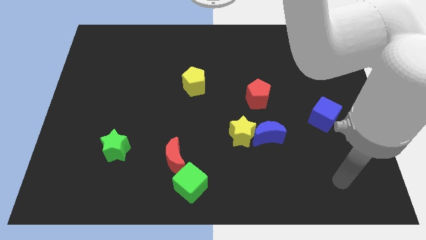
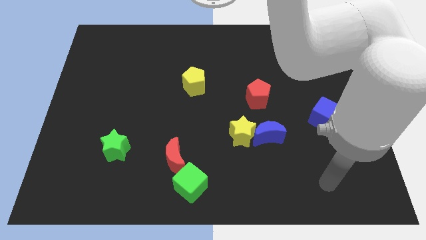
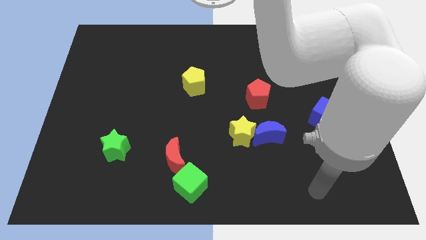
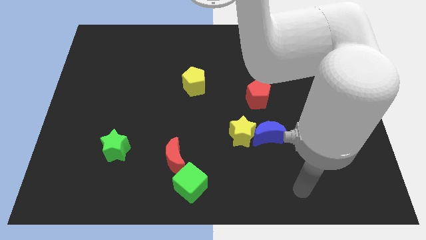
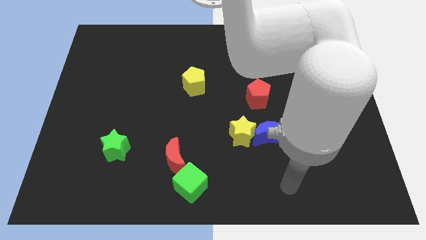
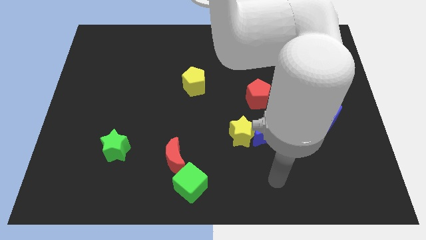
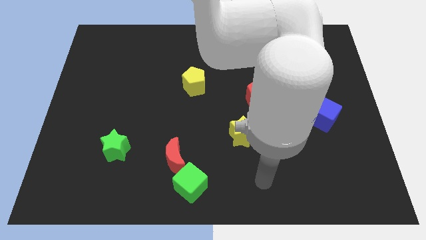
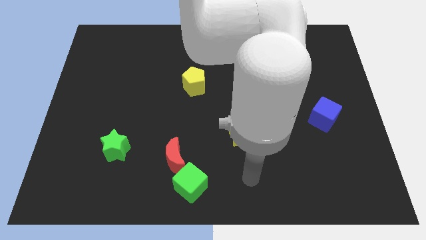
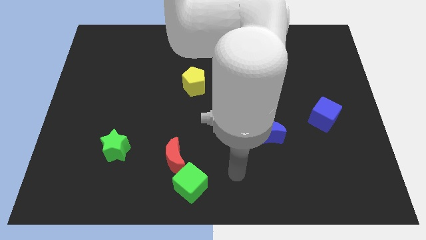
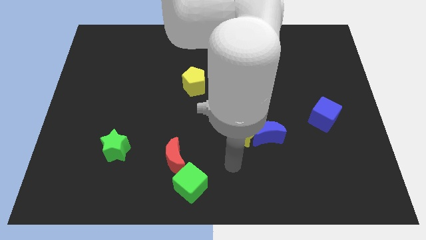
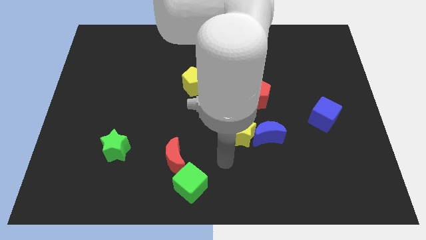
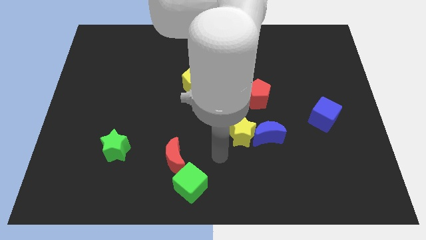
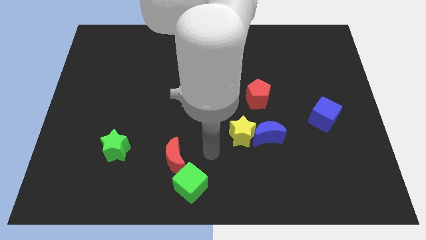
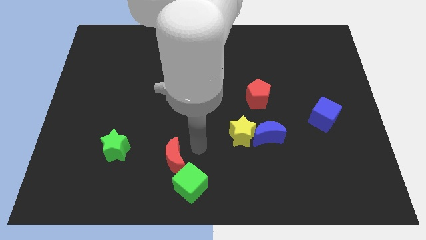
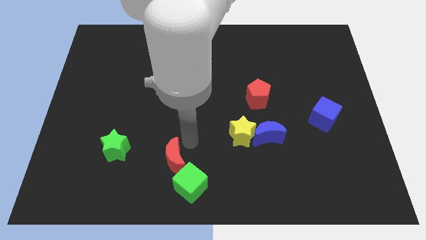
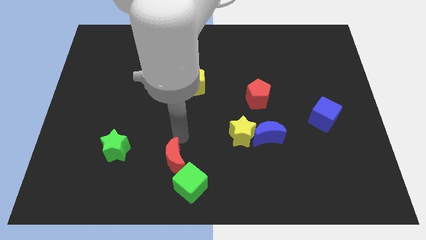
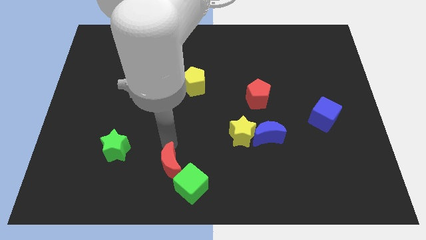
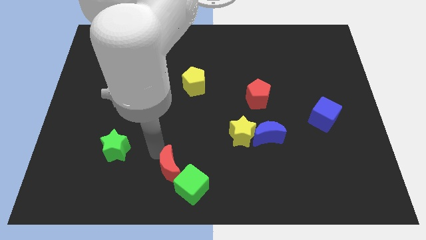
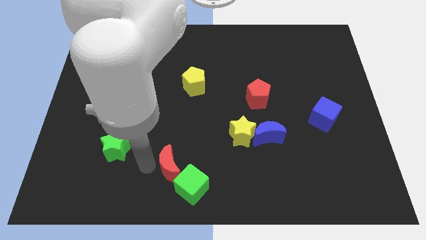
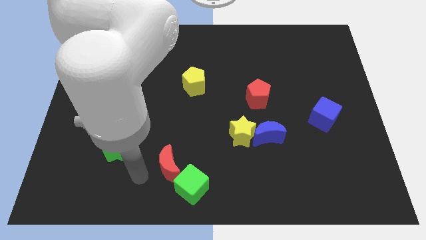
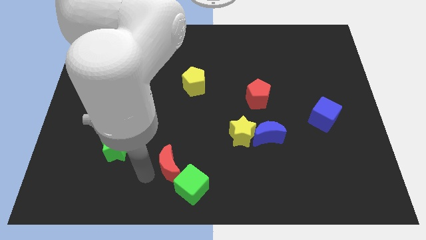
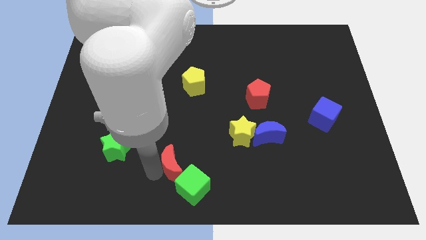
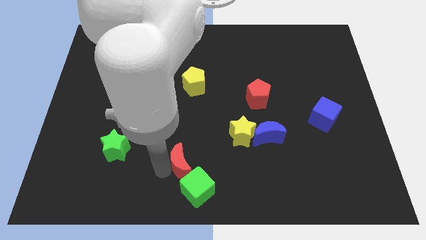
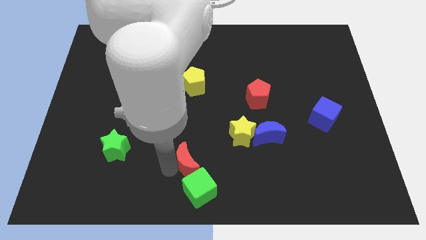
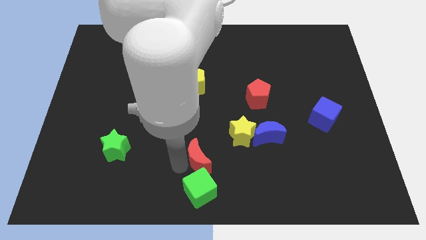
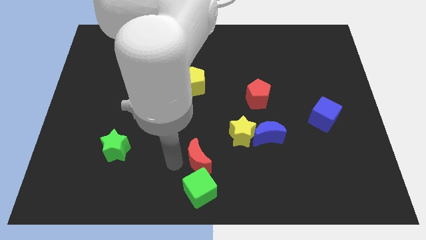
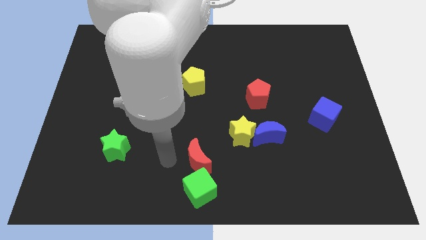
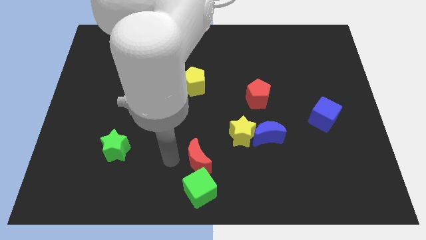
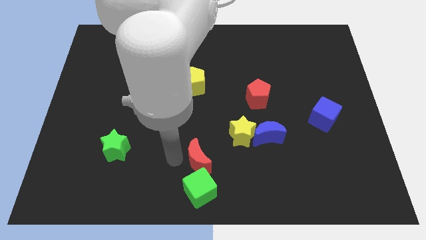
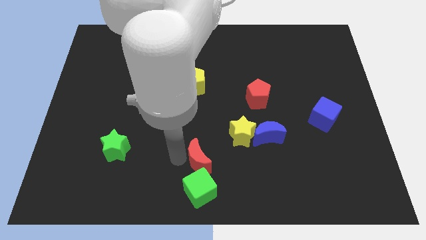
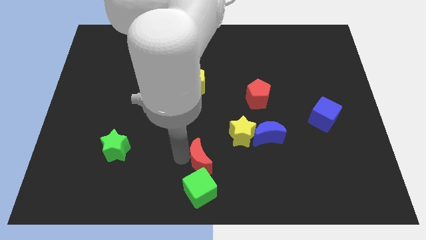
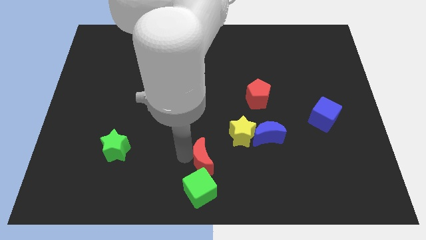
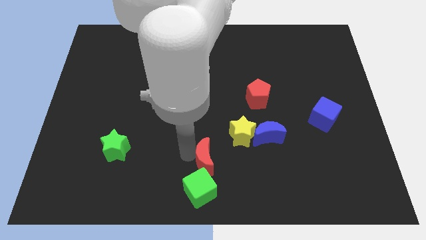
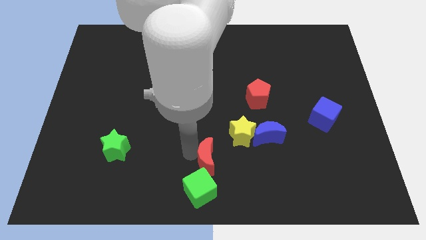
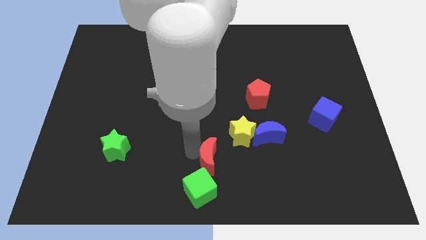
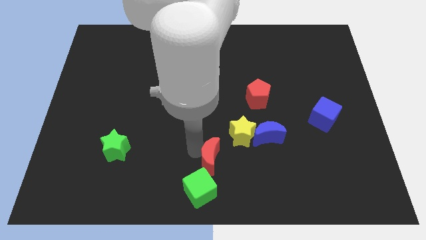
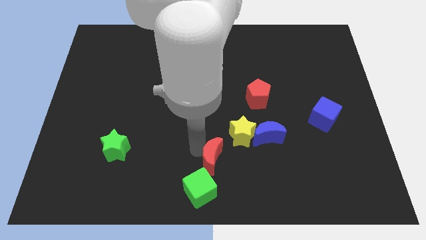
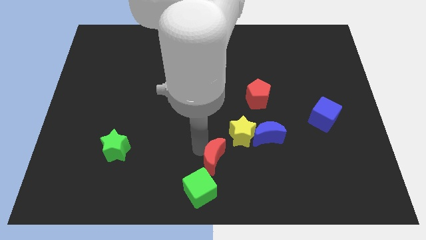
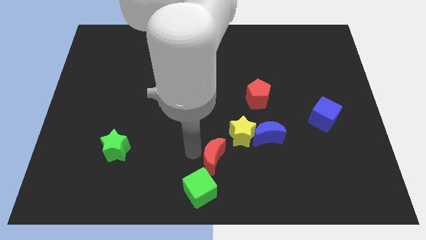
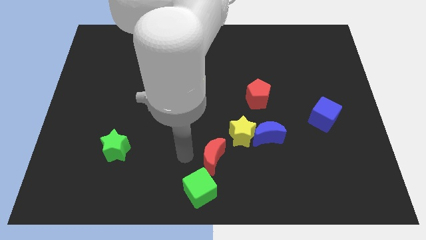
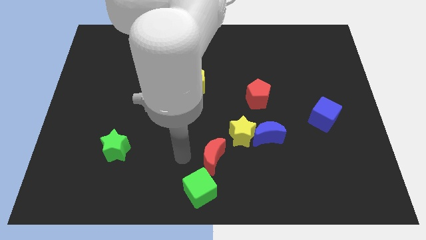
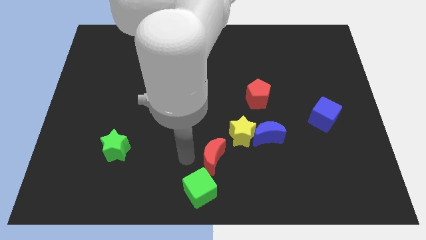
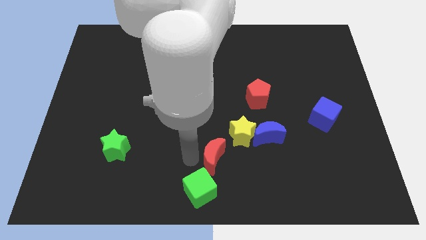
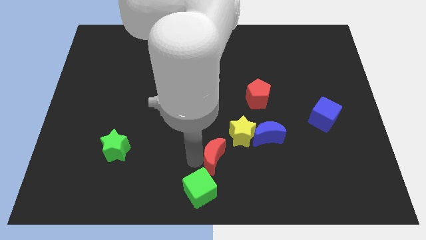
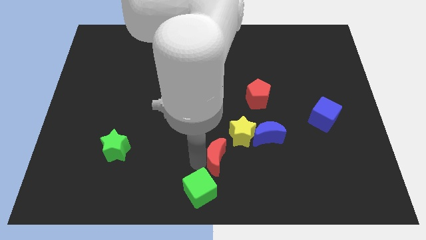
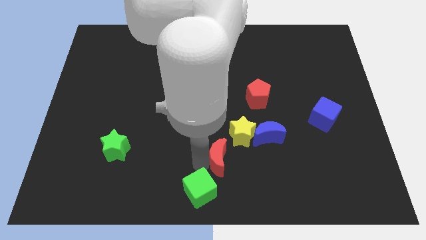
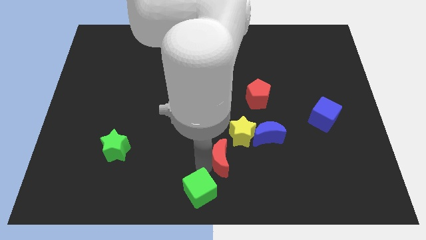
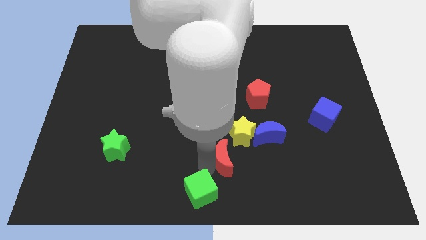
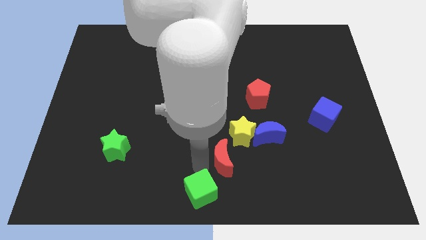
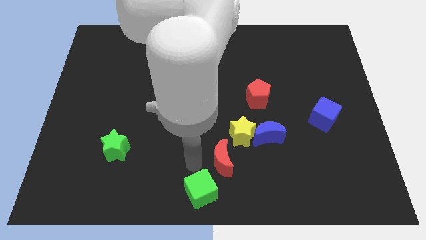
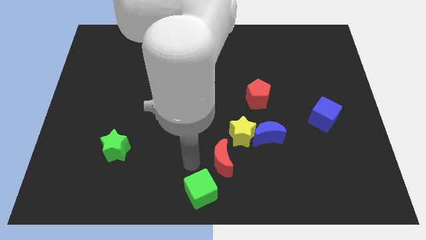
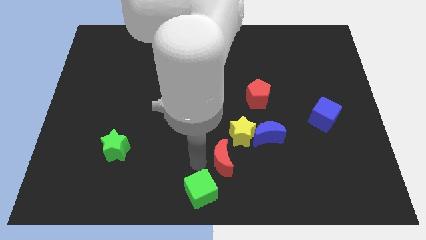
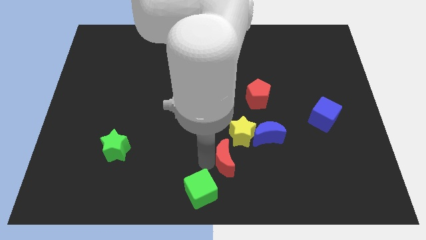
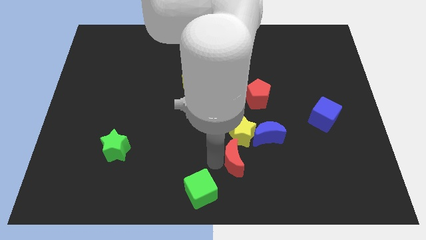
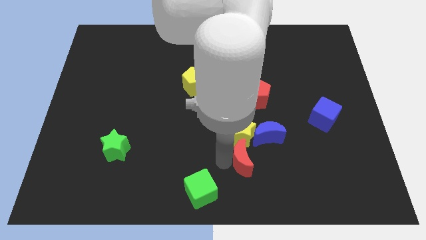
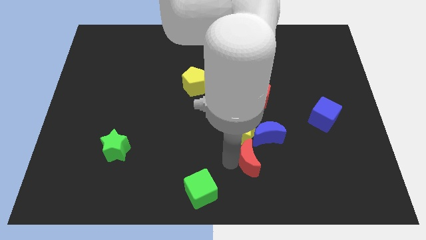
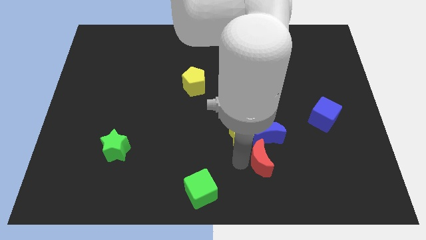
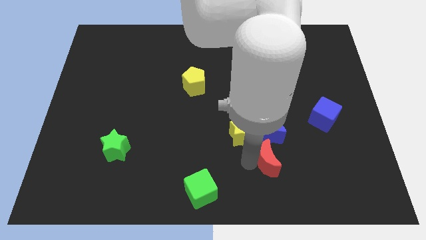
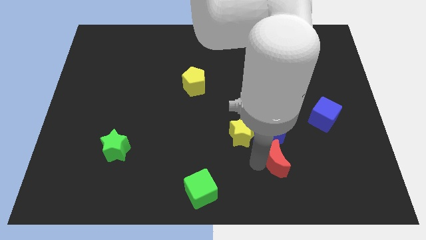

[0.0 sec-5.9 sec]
slide the red moon diagonally down and to the right of the blue moon

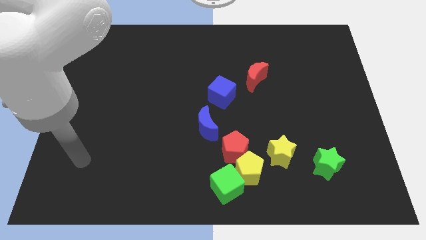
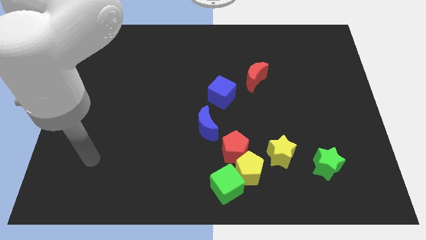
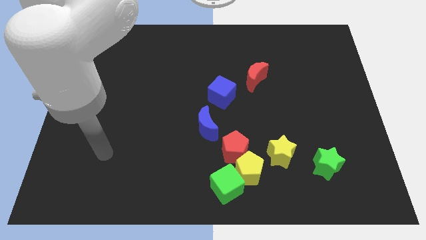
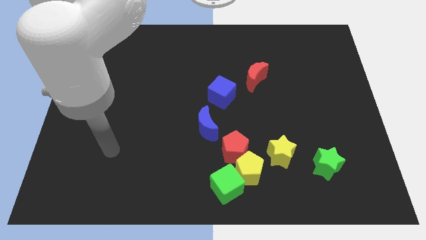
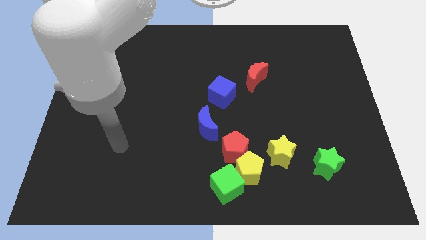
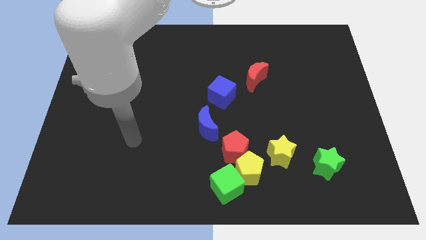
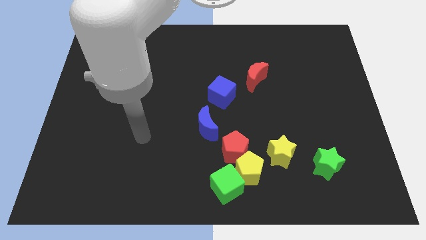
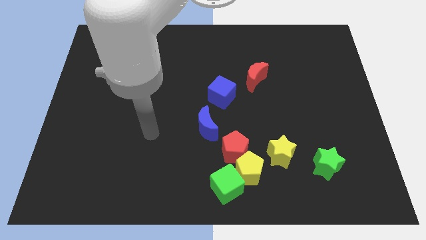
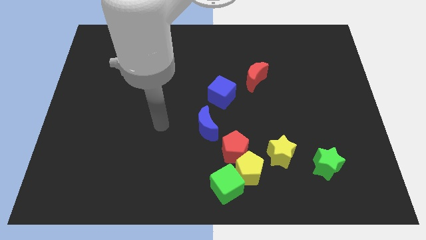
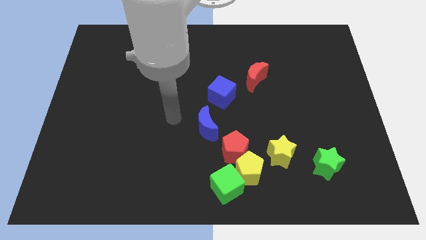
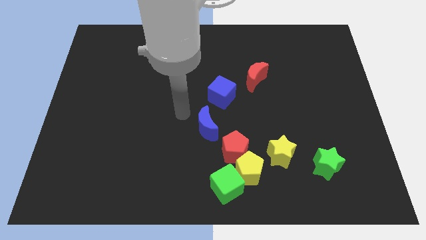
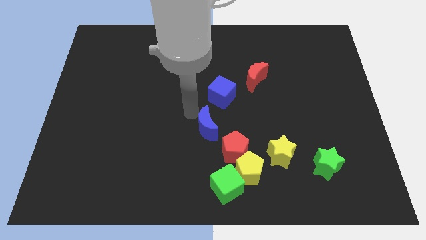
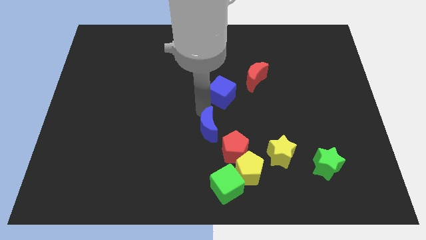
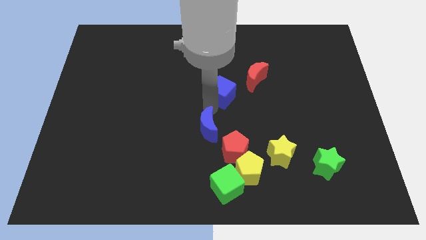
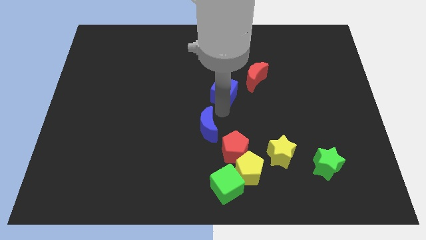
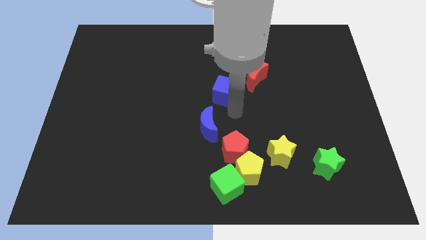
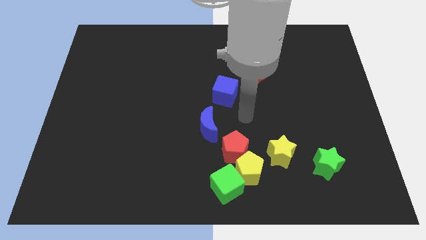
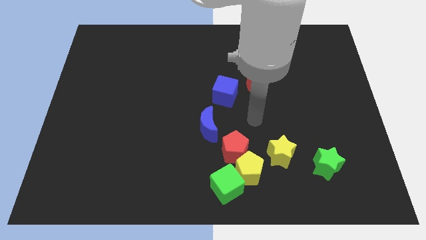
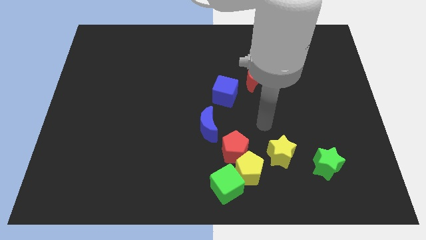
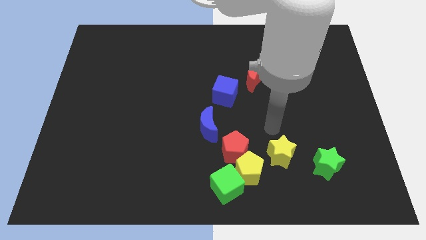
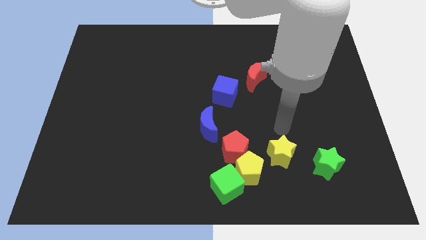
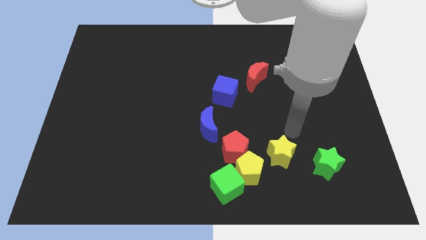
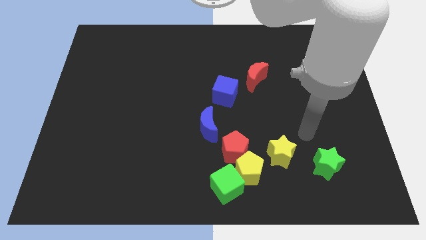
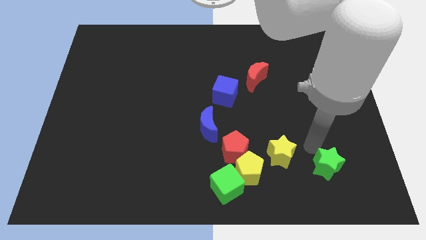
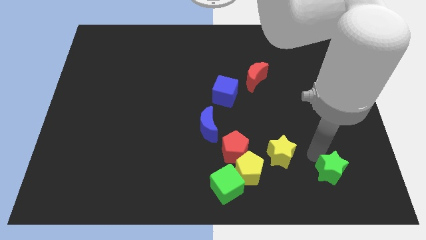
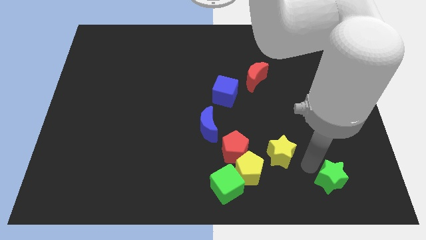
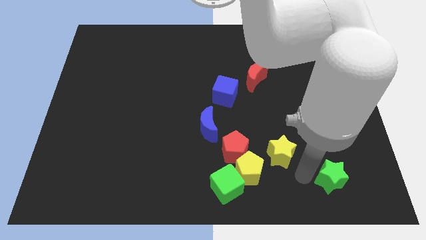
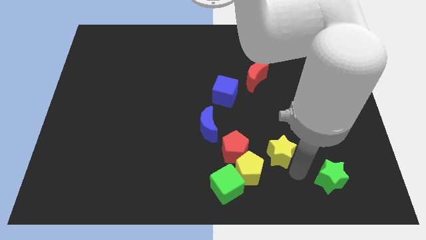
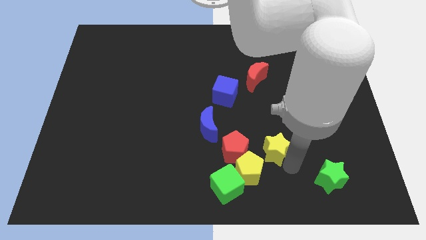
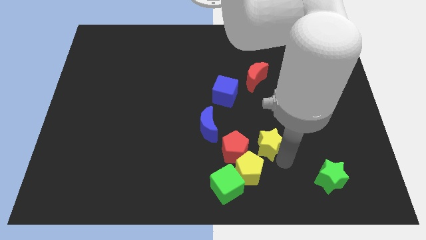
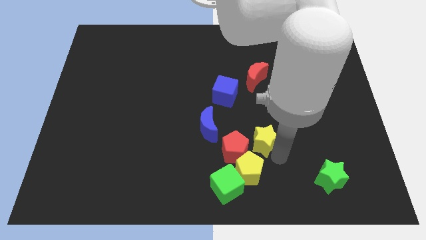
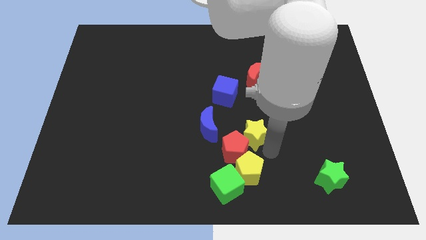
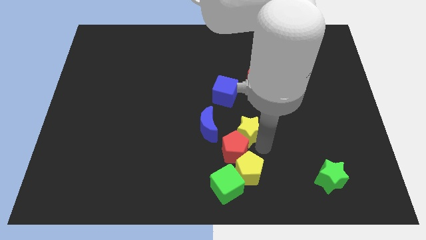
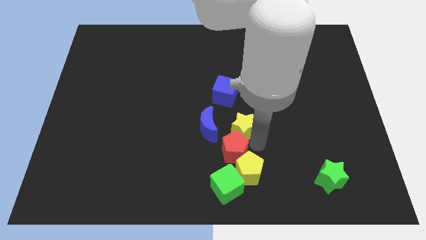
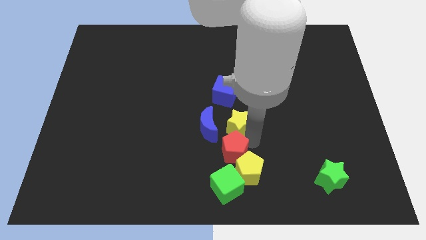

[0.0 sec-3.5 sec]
put the yellow star to the top right side of the blue moon
